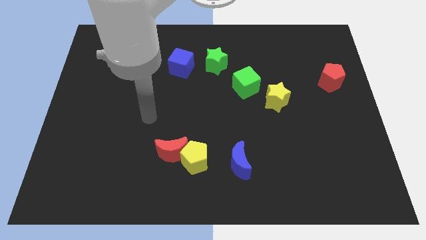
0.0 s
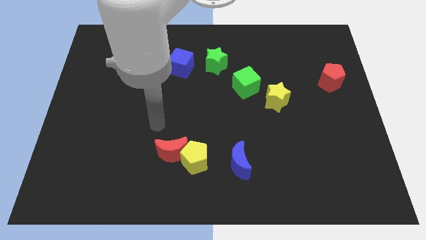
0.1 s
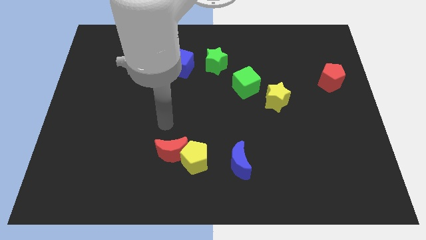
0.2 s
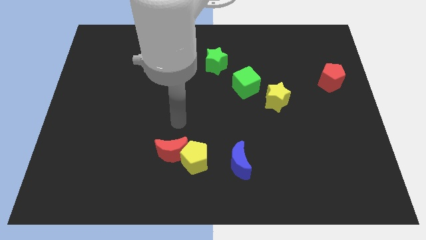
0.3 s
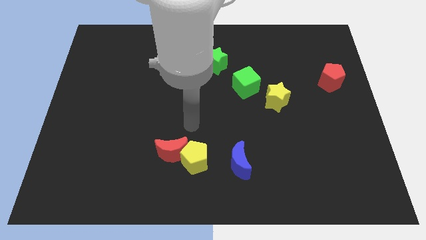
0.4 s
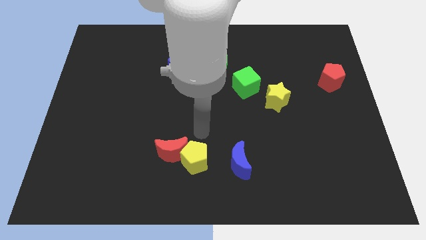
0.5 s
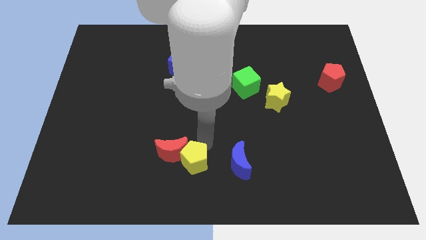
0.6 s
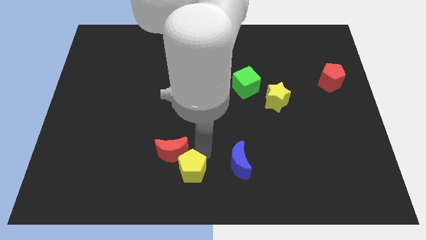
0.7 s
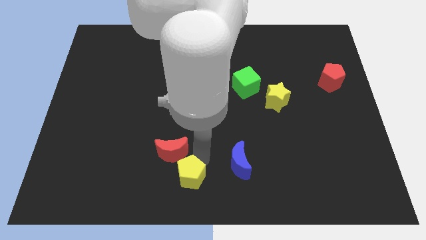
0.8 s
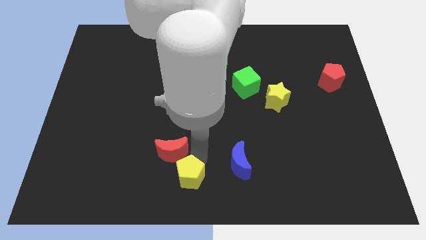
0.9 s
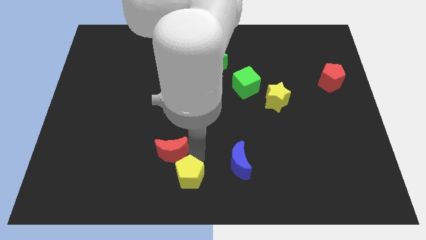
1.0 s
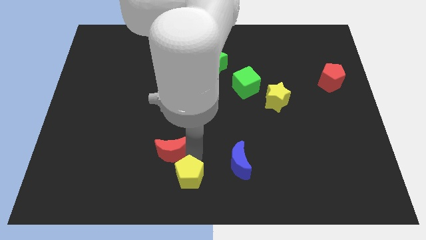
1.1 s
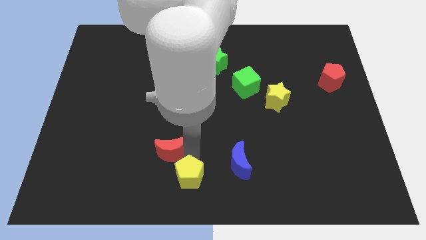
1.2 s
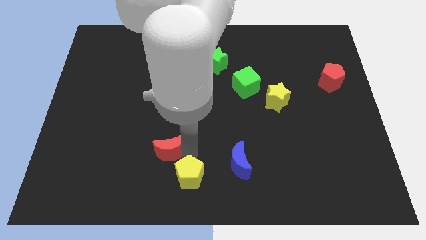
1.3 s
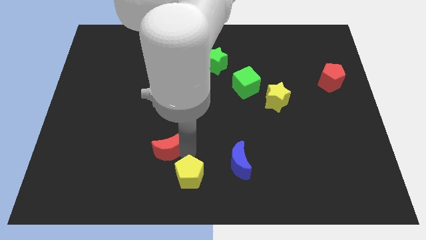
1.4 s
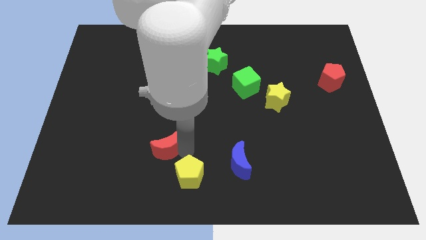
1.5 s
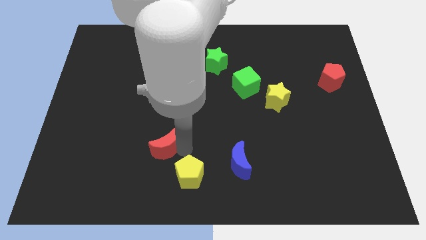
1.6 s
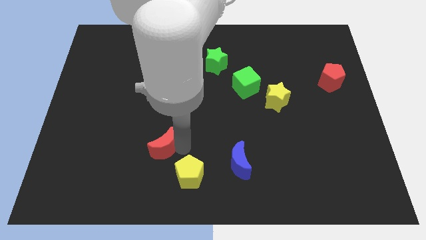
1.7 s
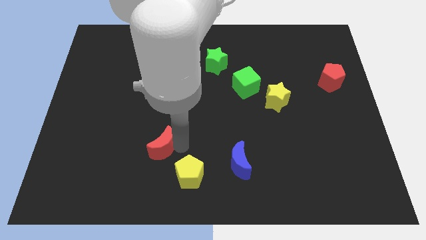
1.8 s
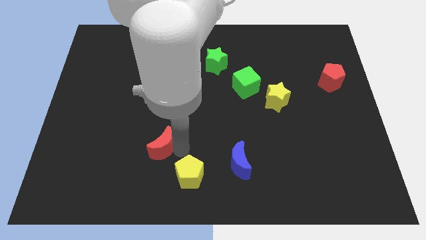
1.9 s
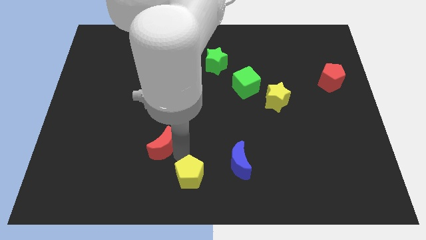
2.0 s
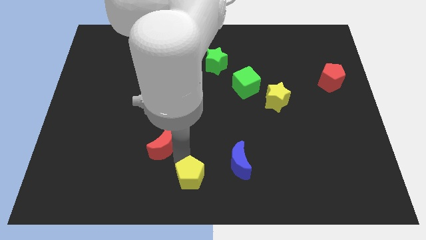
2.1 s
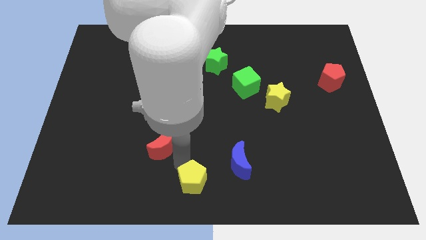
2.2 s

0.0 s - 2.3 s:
move the red moon away from the yellow pentagon

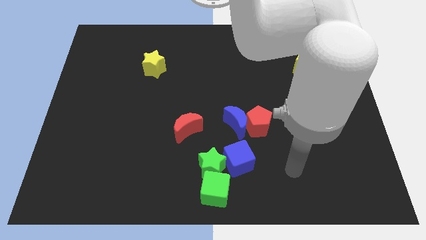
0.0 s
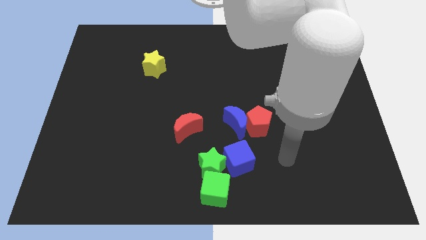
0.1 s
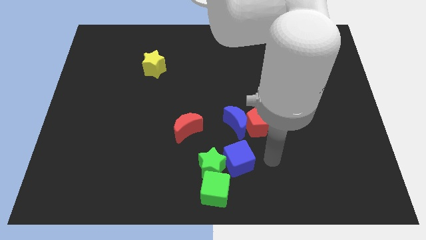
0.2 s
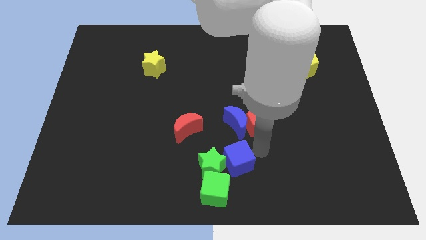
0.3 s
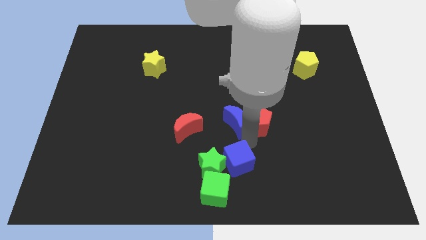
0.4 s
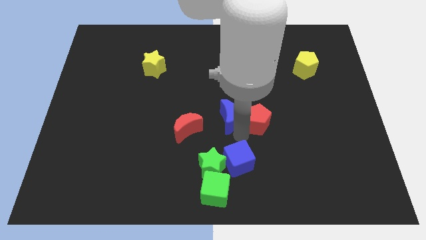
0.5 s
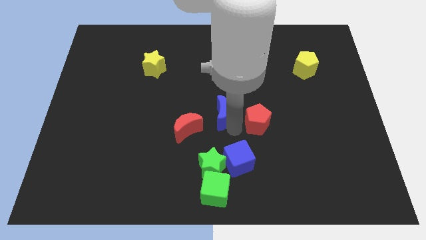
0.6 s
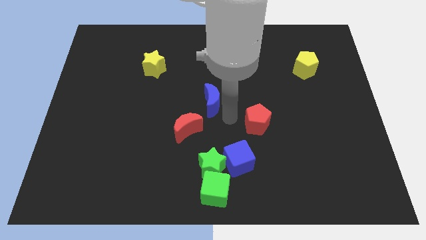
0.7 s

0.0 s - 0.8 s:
move the red pentagon away from the blue moon

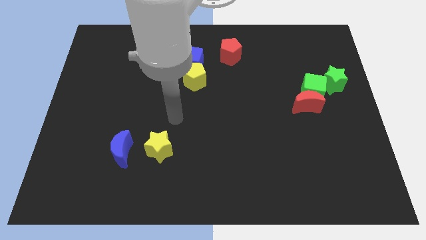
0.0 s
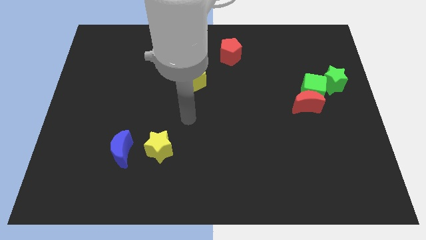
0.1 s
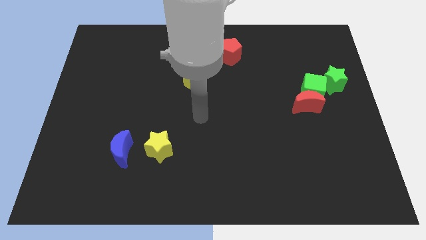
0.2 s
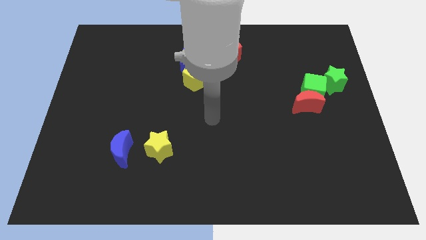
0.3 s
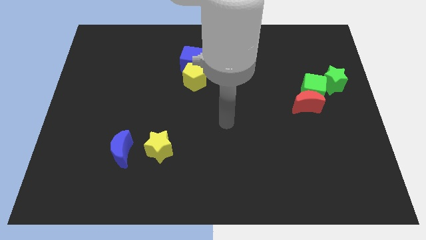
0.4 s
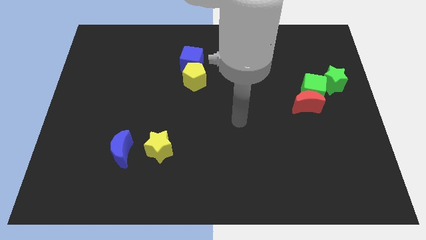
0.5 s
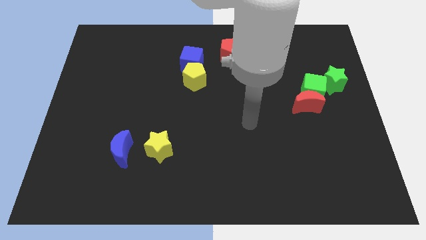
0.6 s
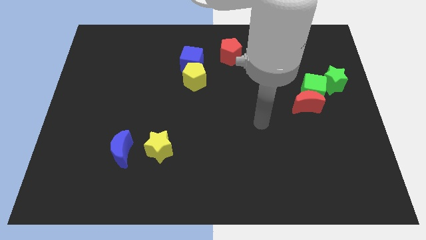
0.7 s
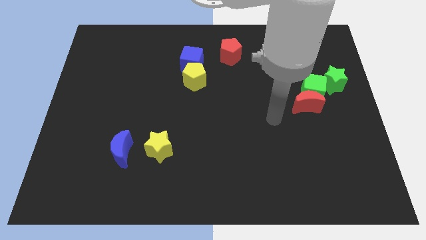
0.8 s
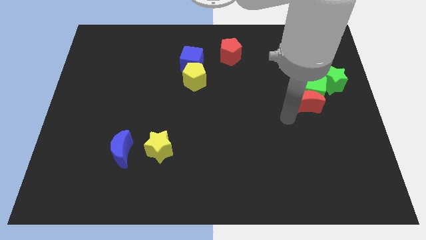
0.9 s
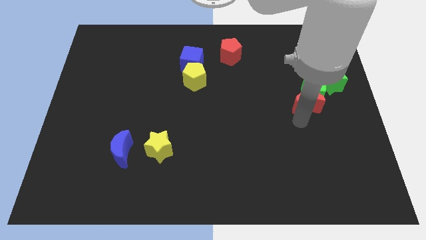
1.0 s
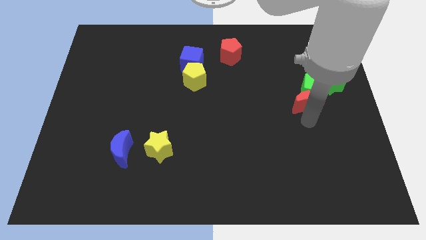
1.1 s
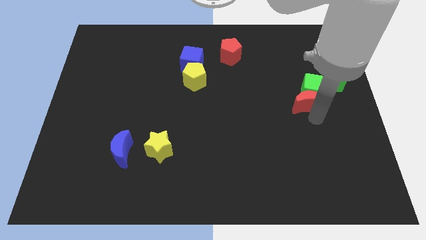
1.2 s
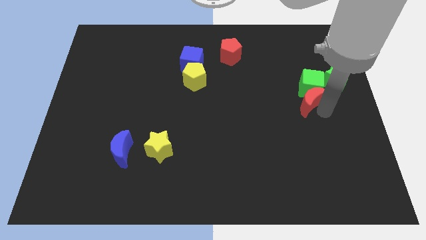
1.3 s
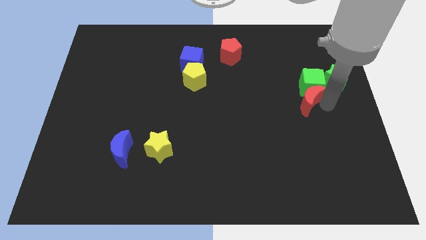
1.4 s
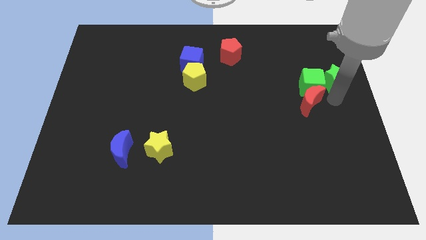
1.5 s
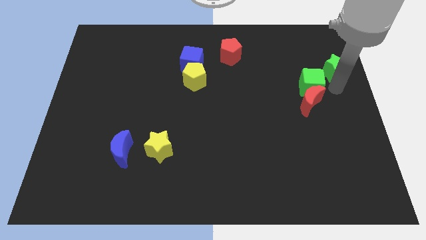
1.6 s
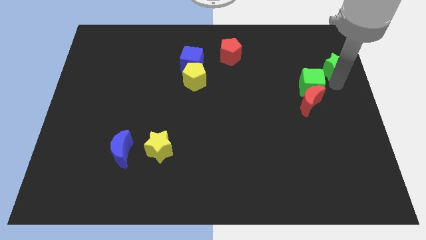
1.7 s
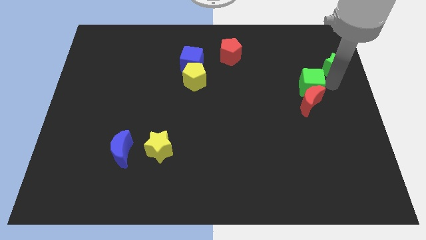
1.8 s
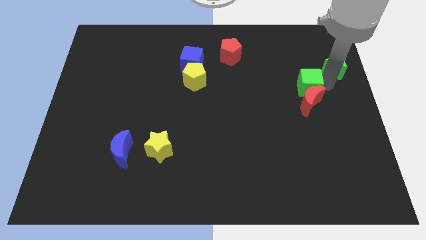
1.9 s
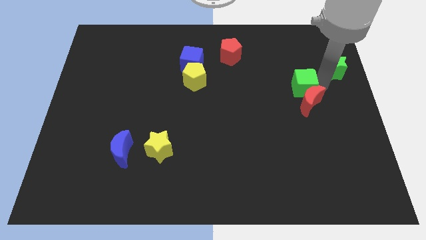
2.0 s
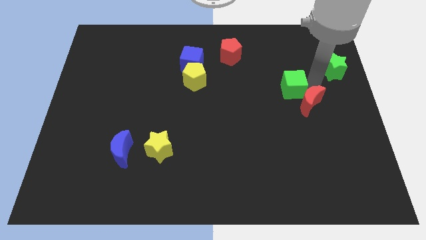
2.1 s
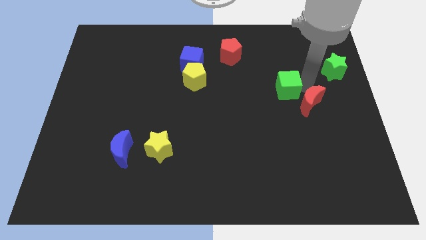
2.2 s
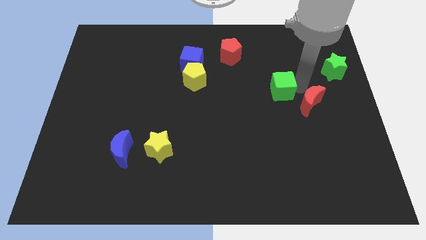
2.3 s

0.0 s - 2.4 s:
separate the green cube from the red moon and green star

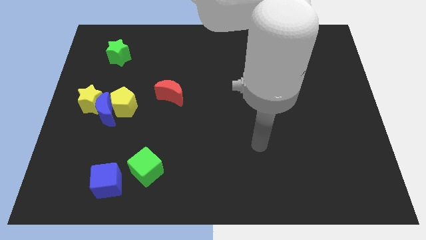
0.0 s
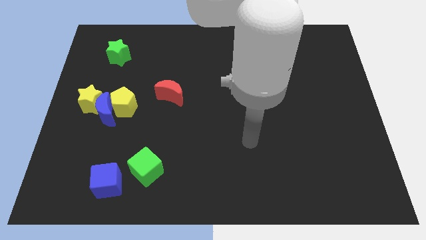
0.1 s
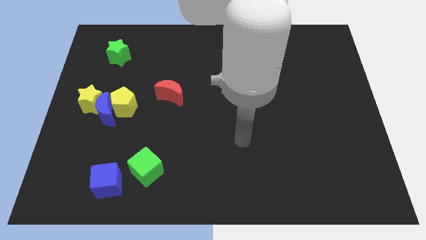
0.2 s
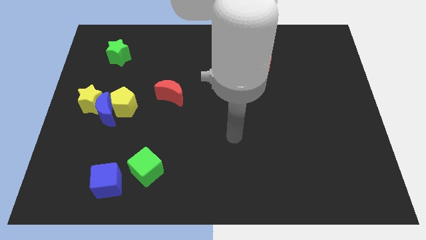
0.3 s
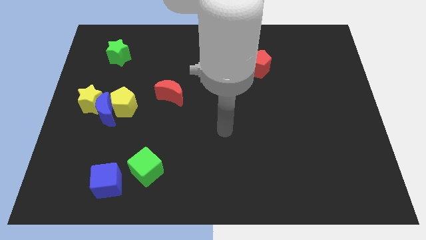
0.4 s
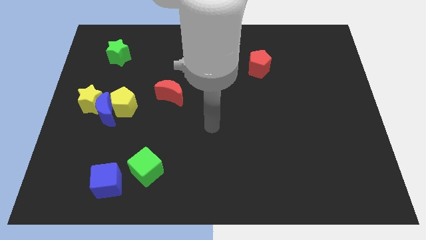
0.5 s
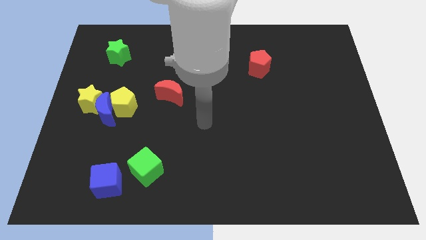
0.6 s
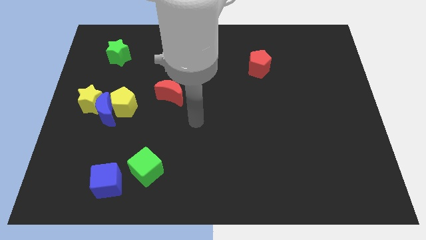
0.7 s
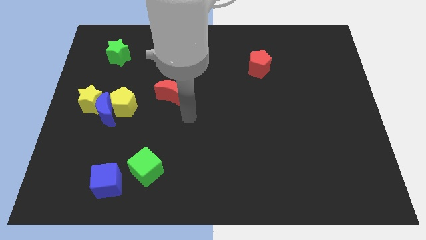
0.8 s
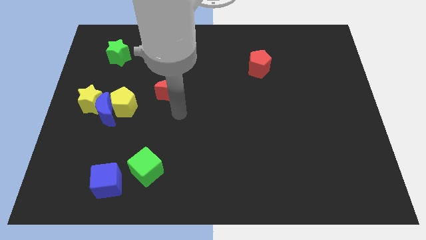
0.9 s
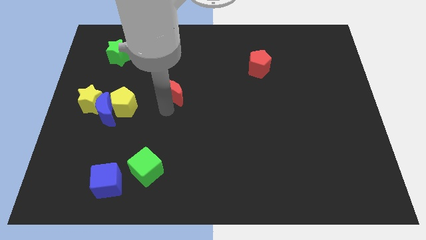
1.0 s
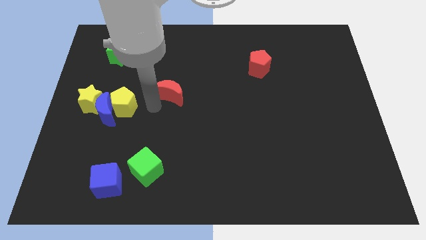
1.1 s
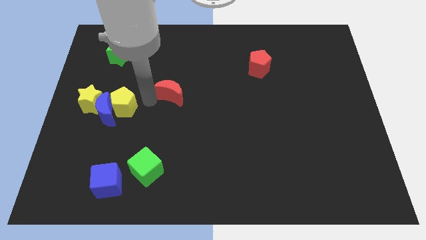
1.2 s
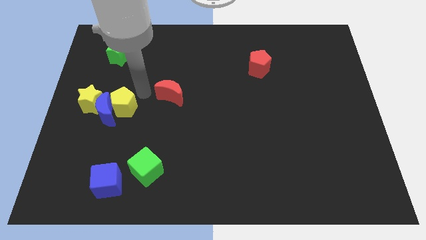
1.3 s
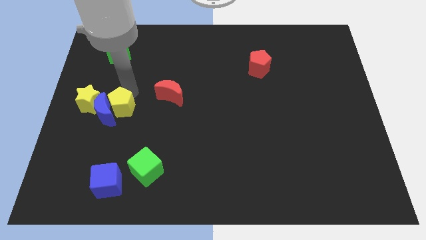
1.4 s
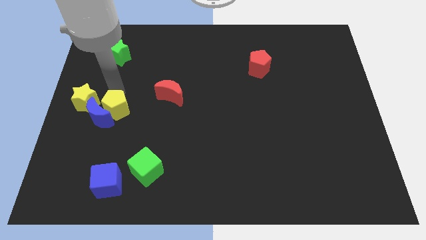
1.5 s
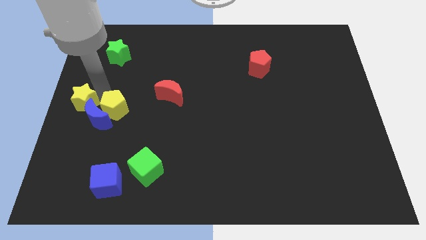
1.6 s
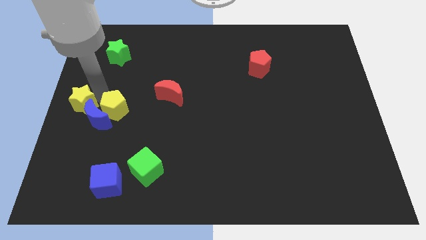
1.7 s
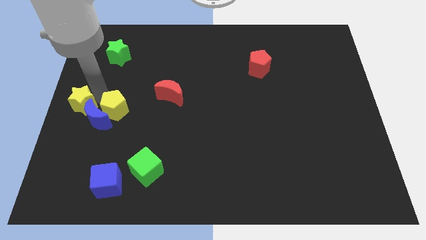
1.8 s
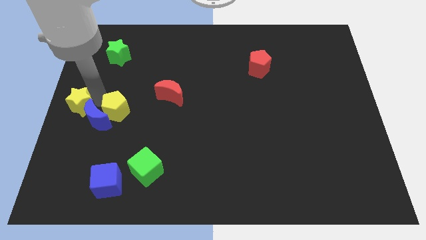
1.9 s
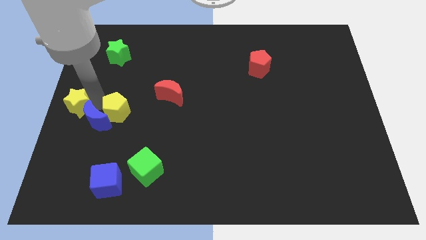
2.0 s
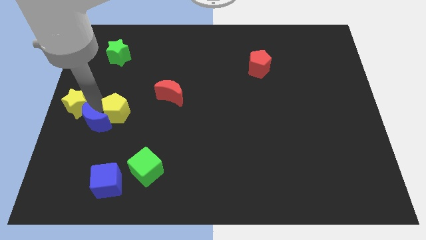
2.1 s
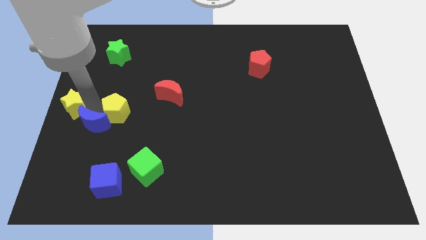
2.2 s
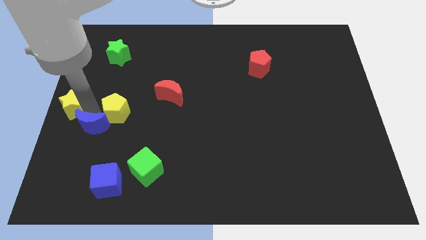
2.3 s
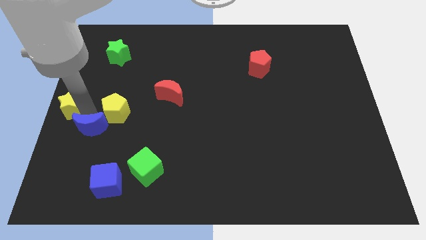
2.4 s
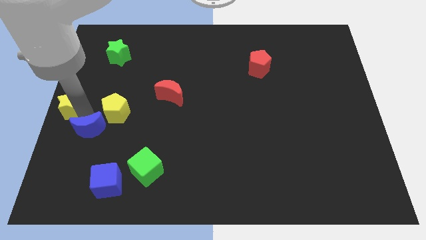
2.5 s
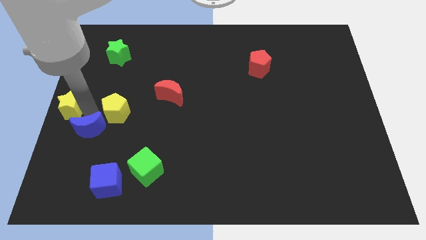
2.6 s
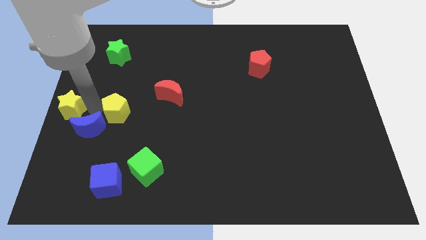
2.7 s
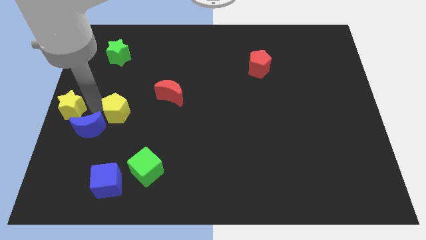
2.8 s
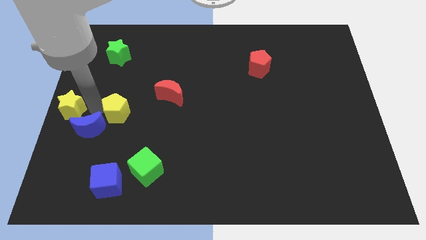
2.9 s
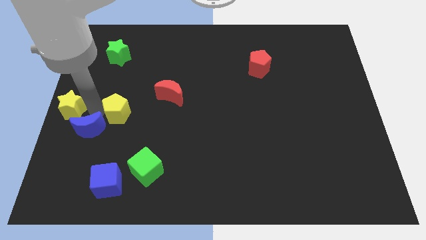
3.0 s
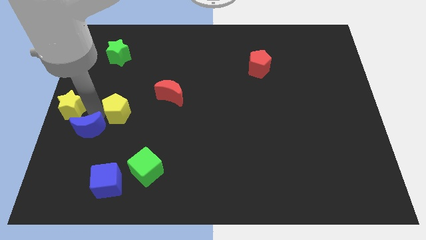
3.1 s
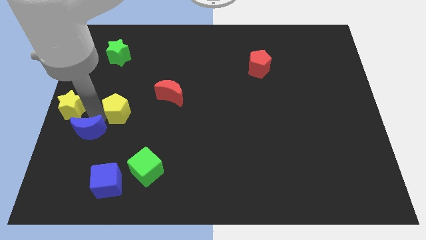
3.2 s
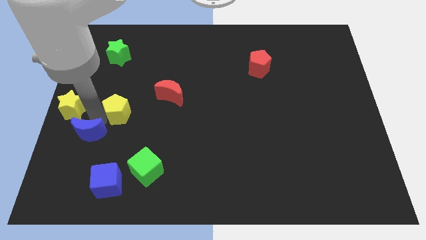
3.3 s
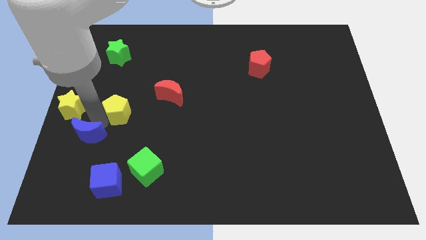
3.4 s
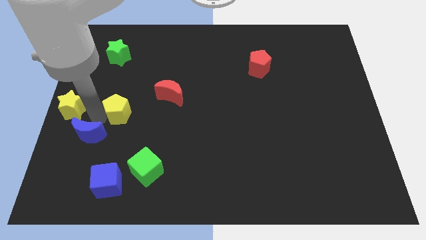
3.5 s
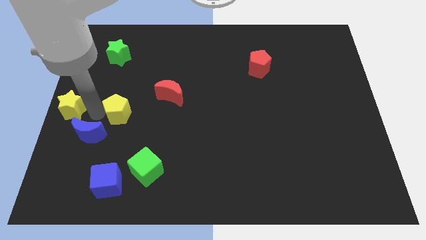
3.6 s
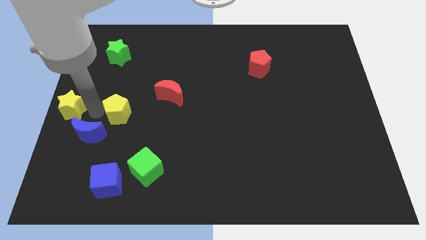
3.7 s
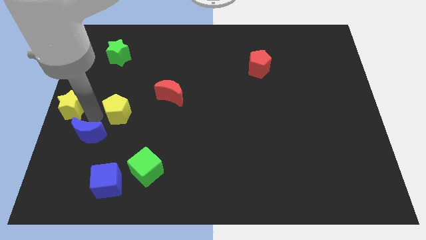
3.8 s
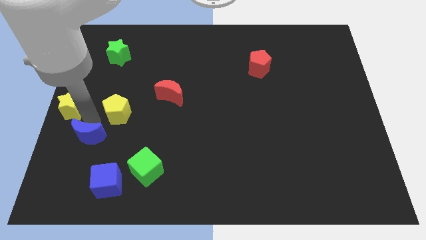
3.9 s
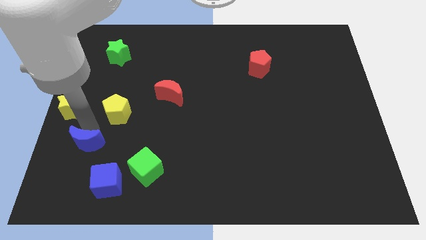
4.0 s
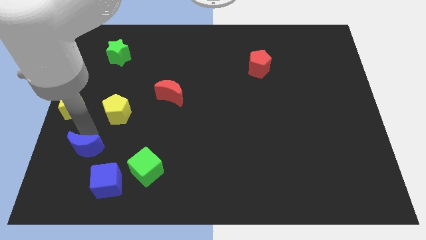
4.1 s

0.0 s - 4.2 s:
pull the blue moon apart from the yellow pentagon and yellow star
